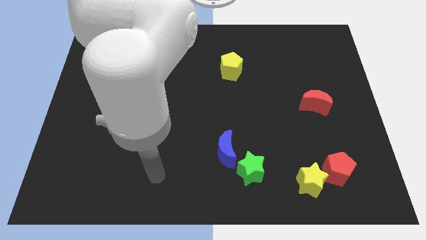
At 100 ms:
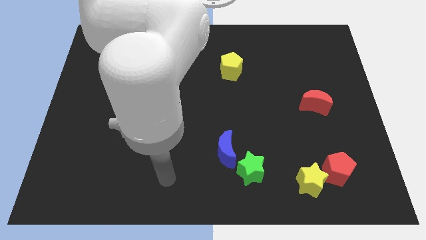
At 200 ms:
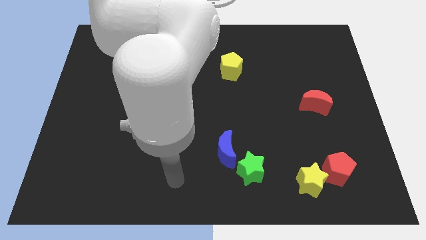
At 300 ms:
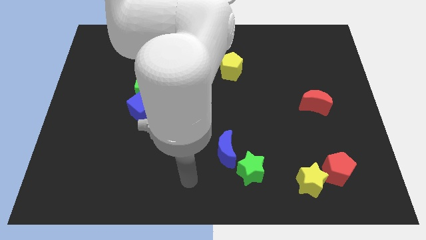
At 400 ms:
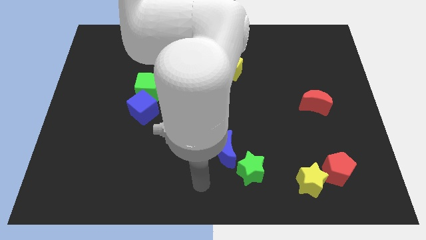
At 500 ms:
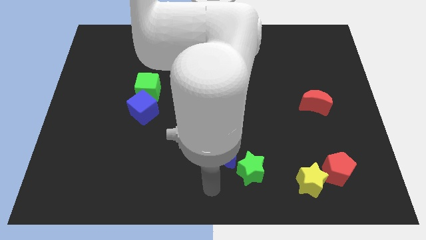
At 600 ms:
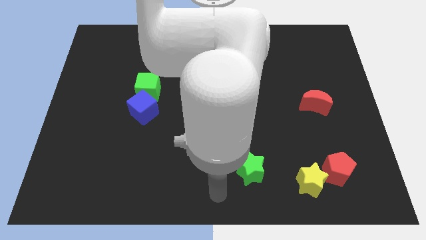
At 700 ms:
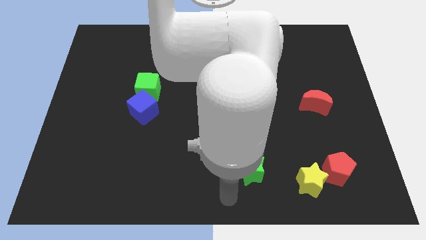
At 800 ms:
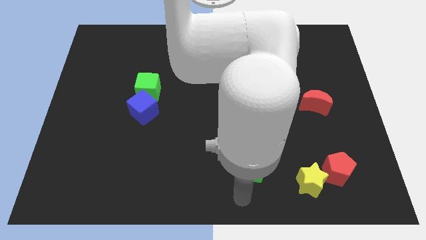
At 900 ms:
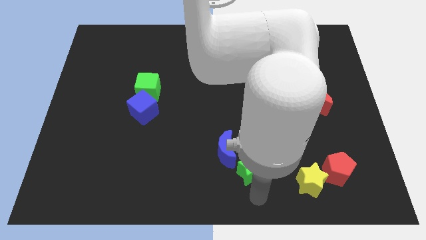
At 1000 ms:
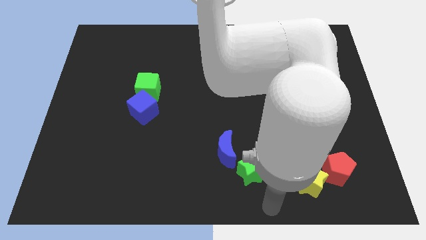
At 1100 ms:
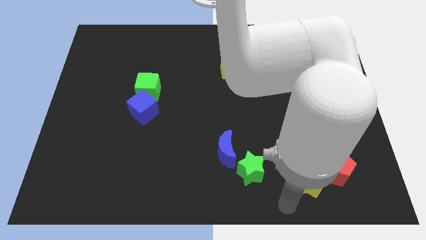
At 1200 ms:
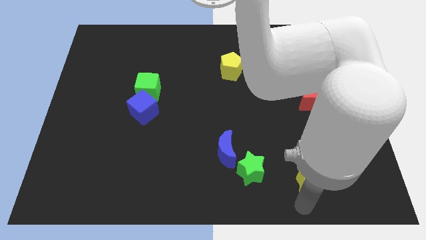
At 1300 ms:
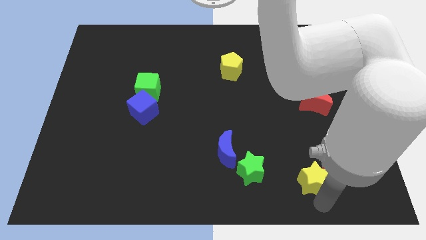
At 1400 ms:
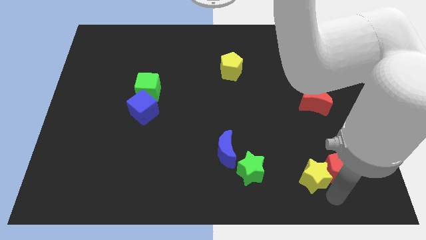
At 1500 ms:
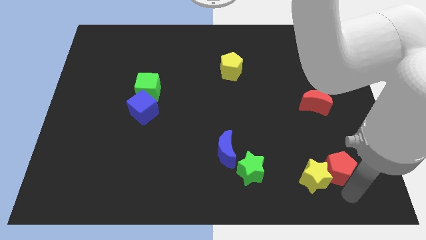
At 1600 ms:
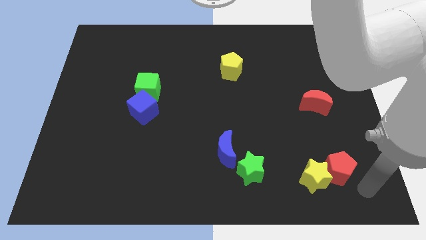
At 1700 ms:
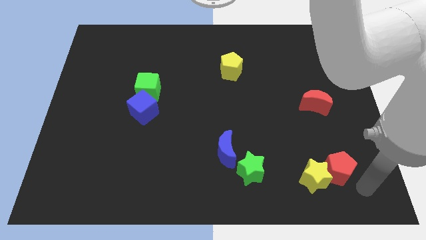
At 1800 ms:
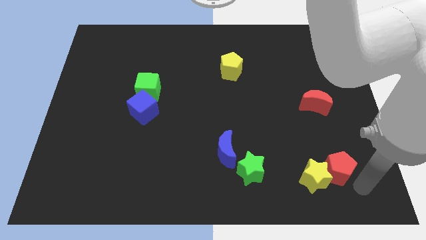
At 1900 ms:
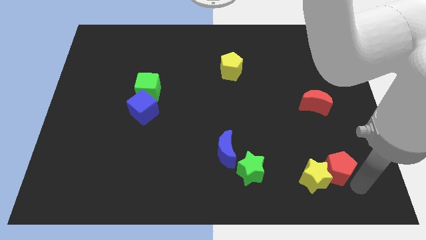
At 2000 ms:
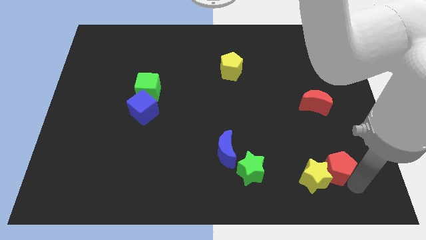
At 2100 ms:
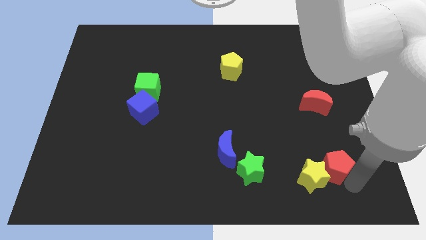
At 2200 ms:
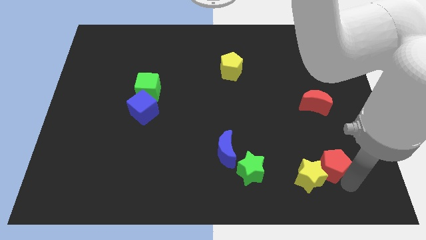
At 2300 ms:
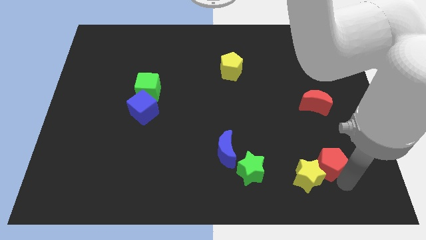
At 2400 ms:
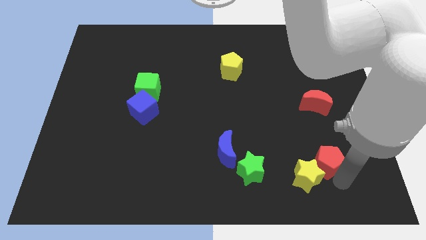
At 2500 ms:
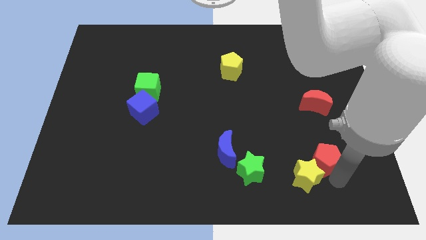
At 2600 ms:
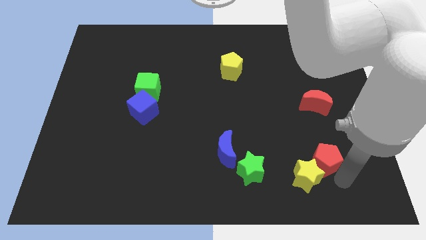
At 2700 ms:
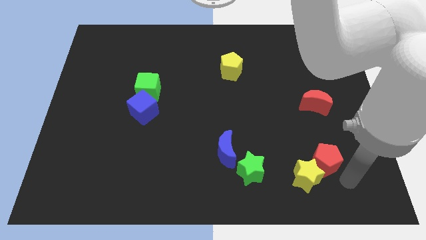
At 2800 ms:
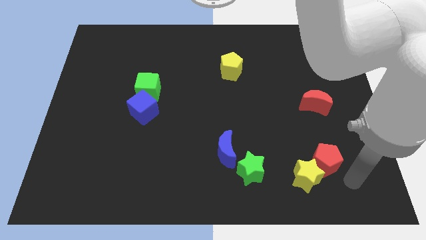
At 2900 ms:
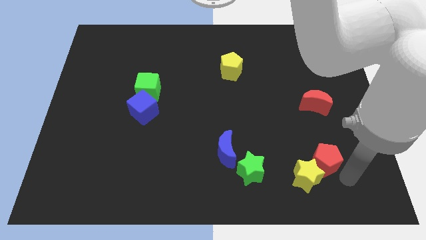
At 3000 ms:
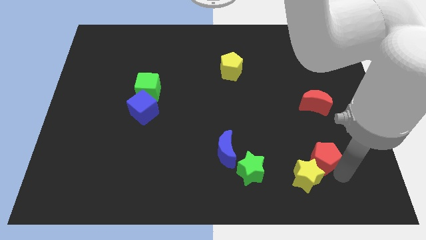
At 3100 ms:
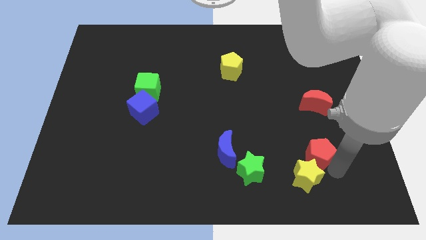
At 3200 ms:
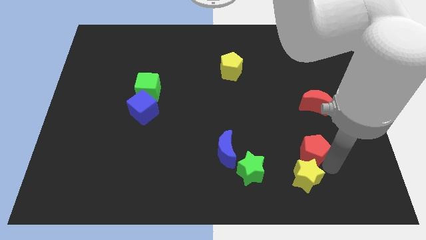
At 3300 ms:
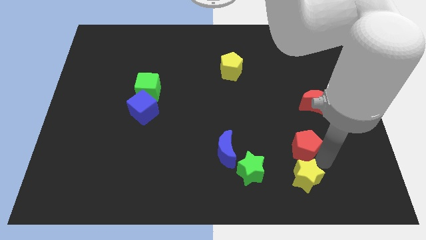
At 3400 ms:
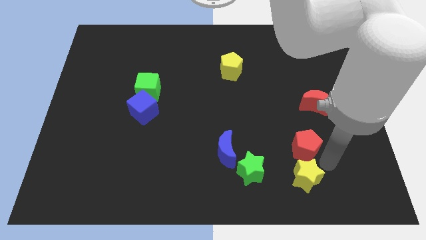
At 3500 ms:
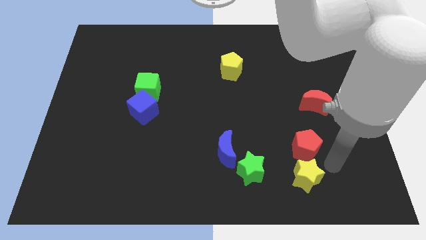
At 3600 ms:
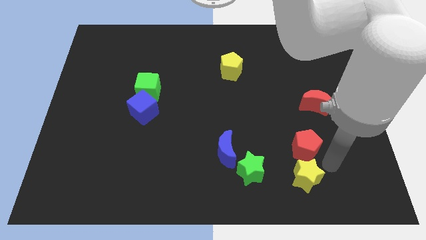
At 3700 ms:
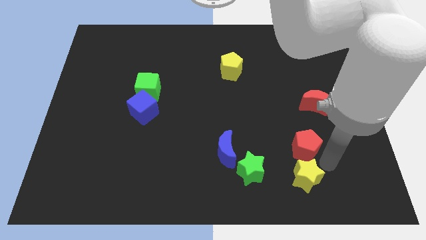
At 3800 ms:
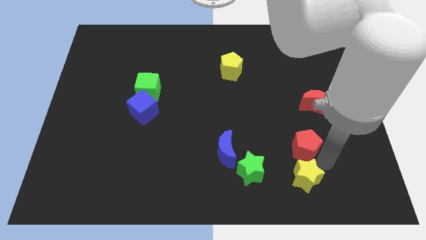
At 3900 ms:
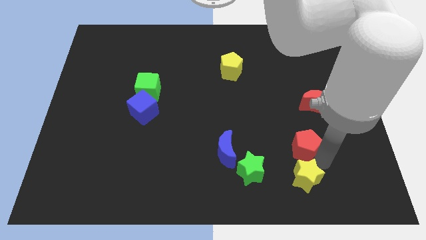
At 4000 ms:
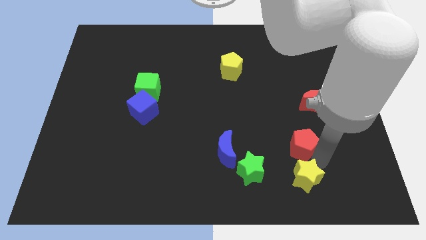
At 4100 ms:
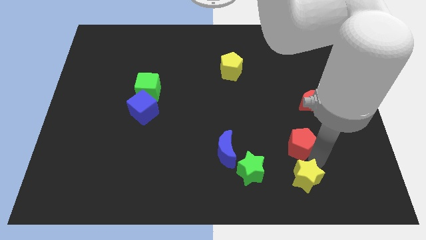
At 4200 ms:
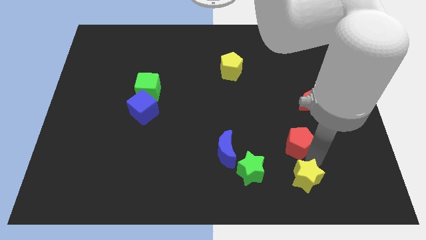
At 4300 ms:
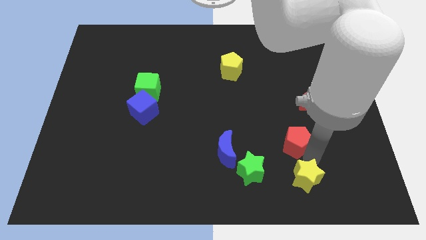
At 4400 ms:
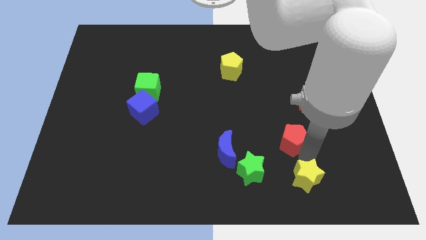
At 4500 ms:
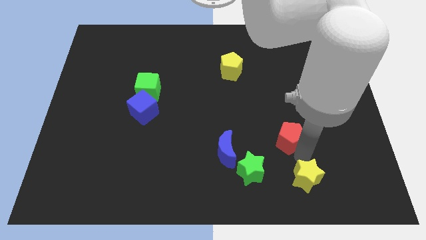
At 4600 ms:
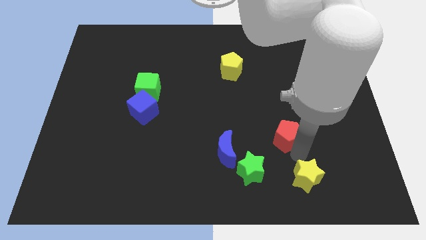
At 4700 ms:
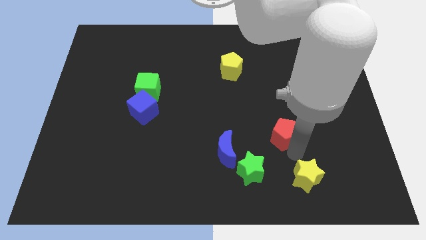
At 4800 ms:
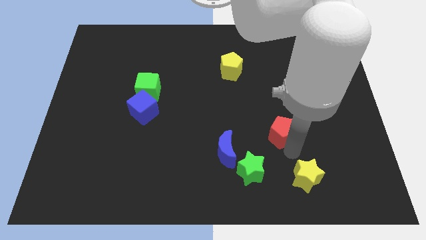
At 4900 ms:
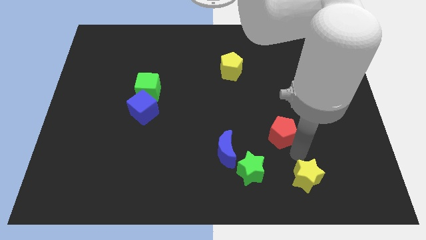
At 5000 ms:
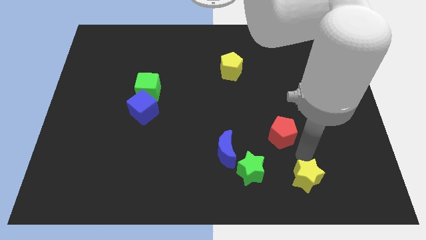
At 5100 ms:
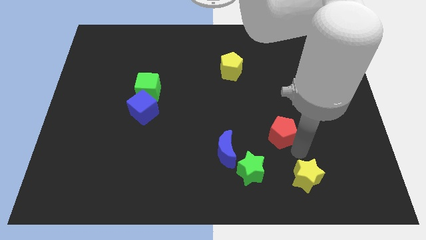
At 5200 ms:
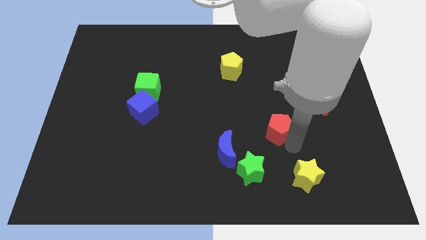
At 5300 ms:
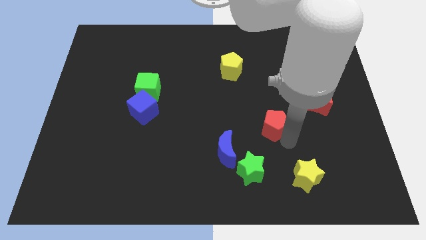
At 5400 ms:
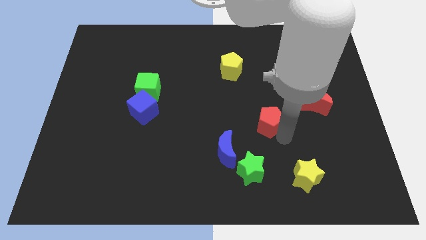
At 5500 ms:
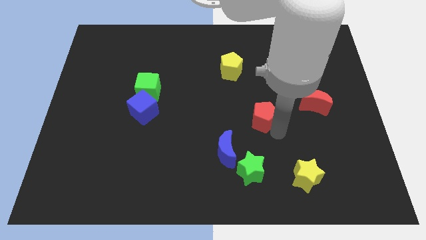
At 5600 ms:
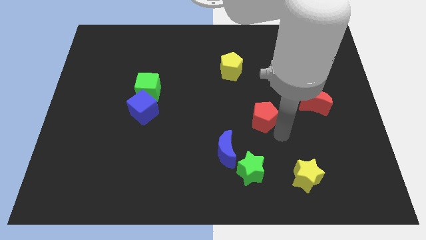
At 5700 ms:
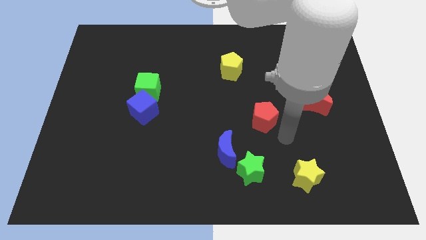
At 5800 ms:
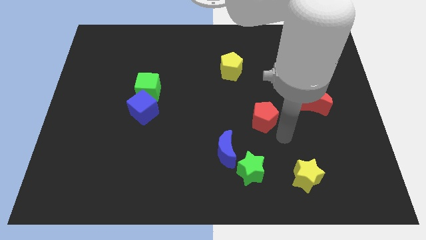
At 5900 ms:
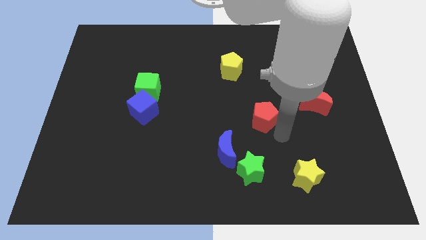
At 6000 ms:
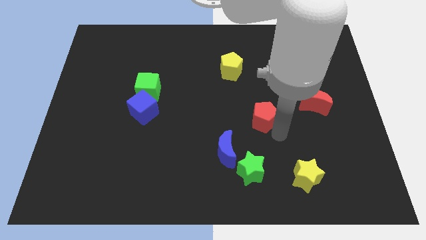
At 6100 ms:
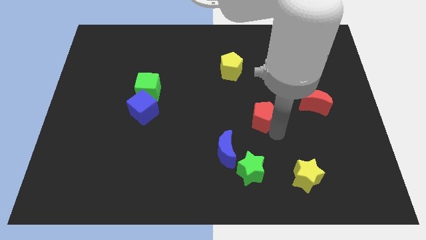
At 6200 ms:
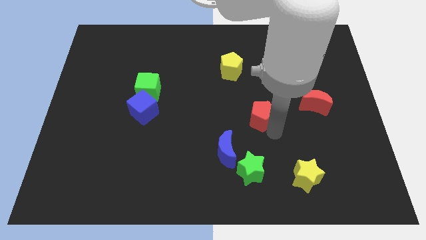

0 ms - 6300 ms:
slide the red pentagon upwards and then left

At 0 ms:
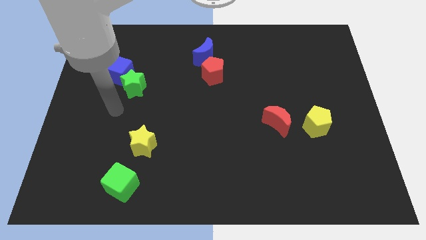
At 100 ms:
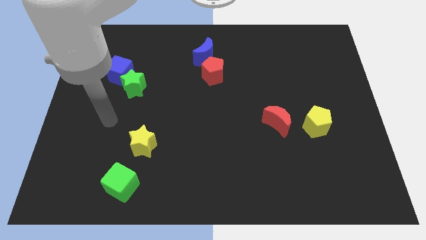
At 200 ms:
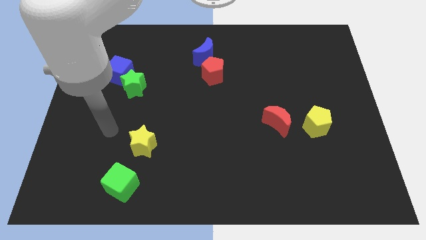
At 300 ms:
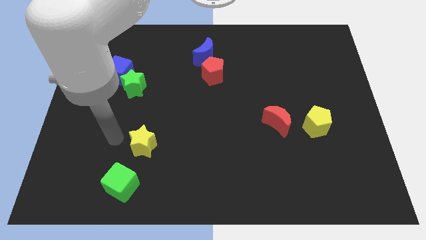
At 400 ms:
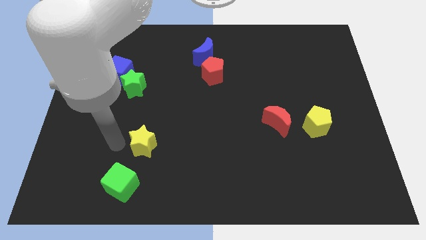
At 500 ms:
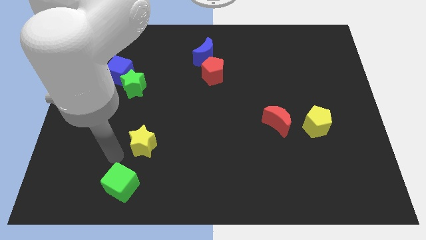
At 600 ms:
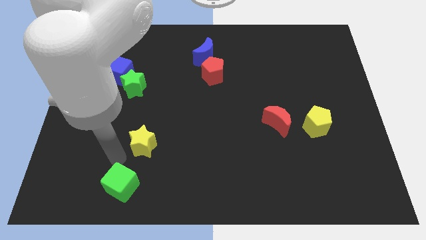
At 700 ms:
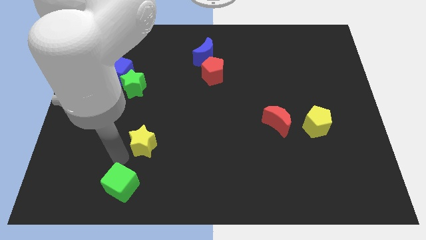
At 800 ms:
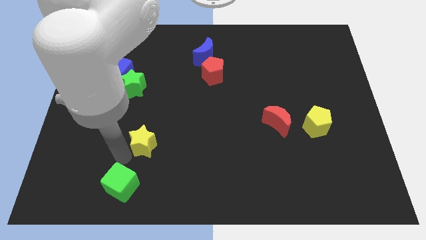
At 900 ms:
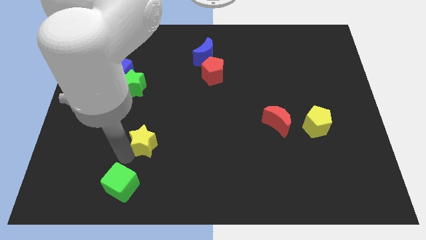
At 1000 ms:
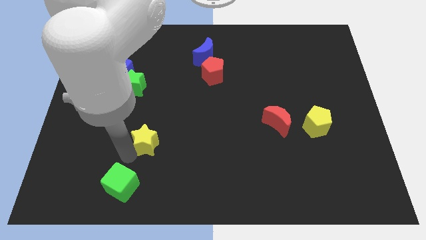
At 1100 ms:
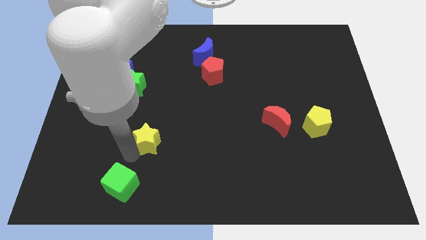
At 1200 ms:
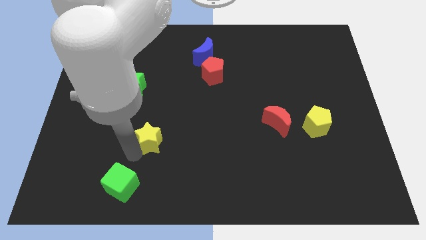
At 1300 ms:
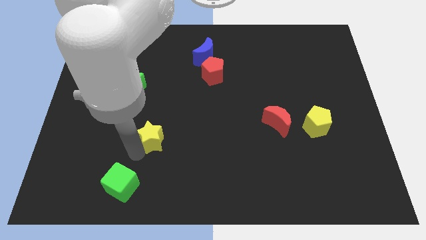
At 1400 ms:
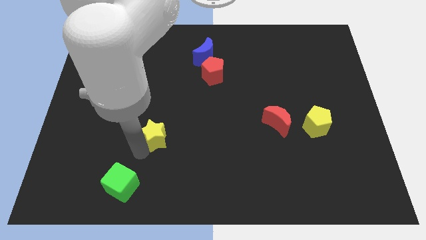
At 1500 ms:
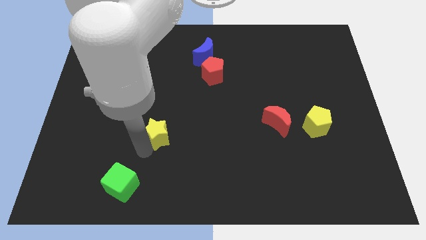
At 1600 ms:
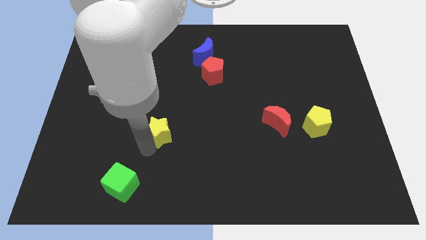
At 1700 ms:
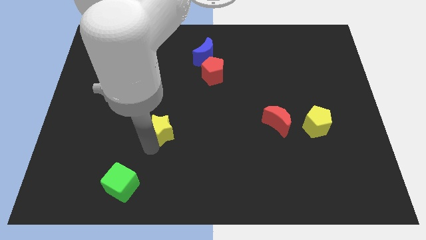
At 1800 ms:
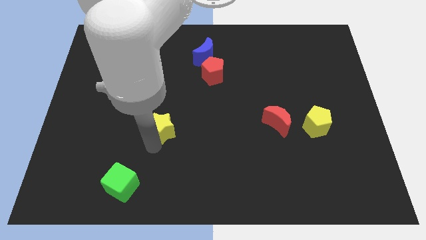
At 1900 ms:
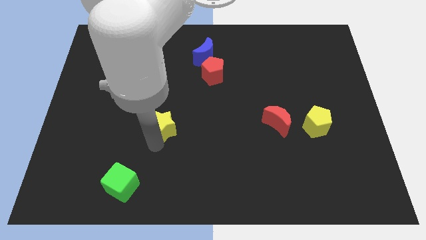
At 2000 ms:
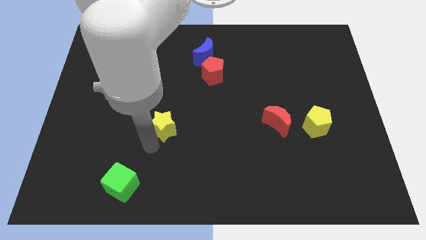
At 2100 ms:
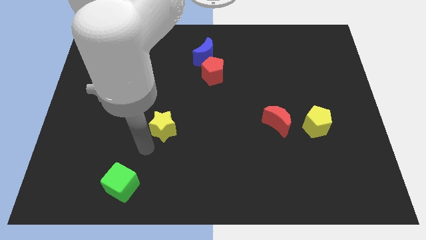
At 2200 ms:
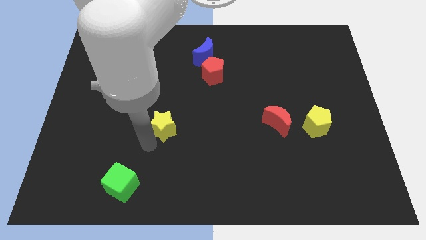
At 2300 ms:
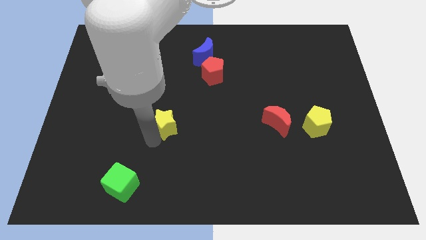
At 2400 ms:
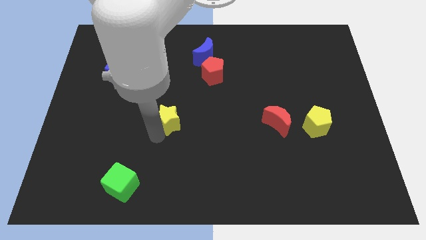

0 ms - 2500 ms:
slightly slide the yellow star upwards and then to the right
